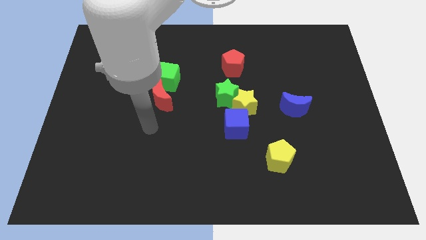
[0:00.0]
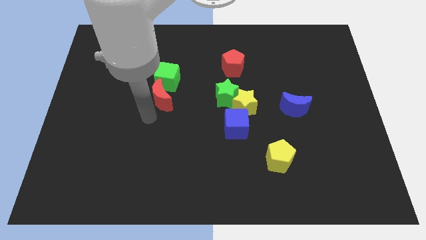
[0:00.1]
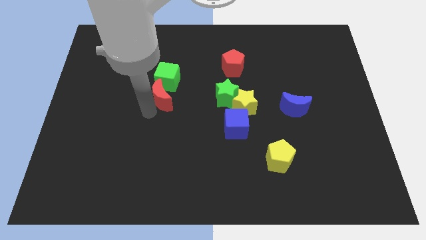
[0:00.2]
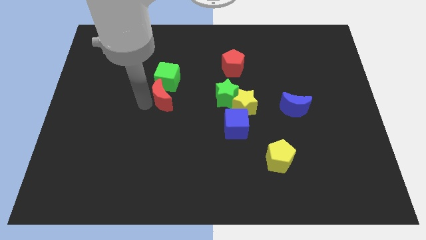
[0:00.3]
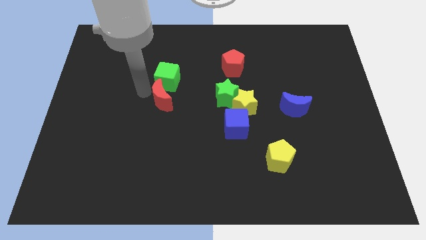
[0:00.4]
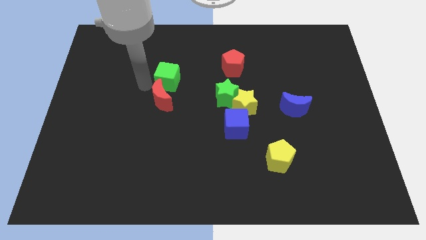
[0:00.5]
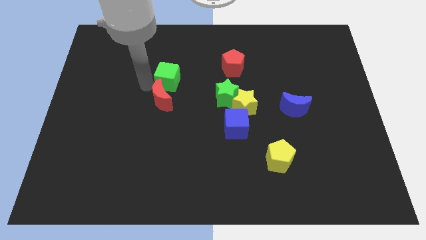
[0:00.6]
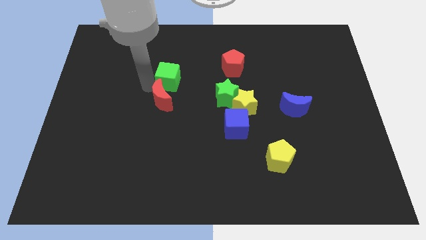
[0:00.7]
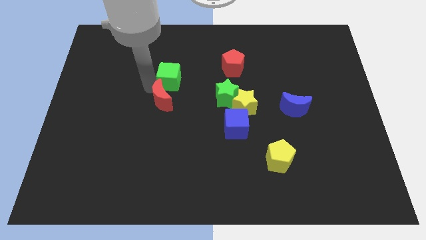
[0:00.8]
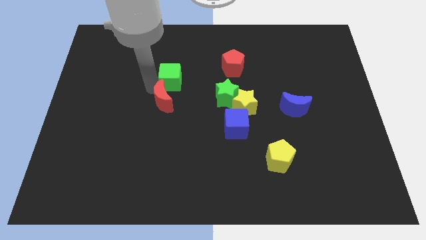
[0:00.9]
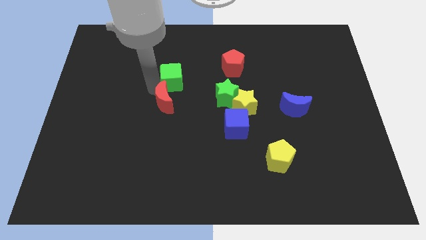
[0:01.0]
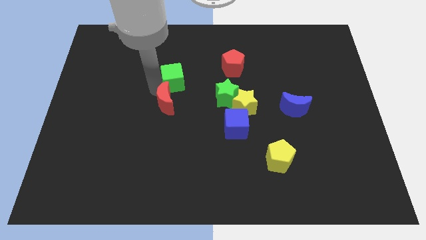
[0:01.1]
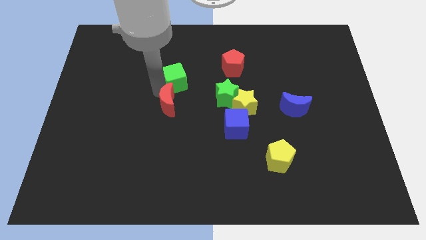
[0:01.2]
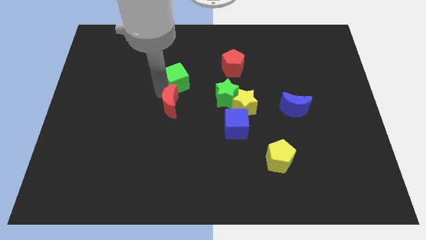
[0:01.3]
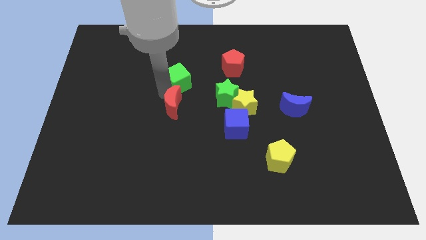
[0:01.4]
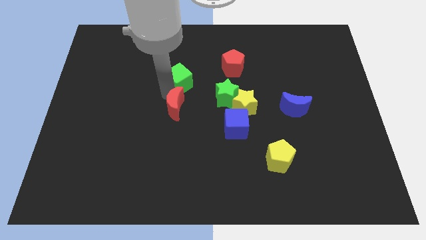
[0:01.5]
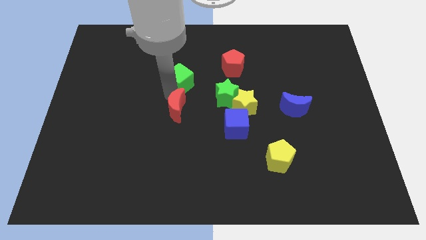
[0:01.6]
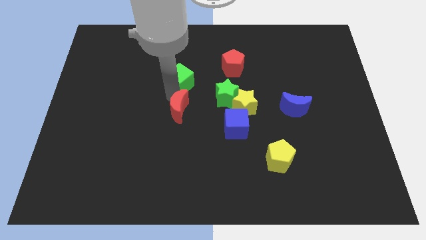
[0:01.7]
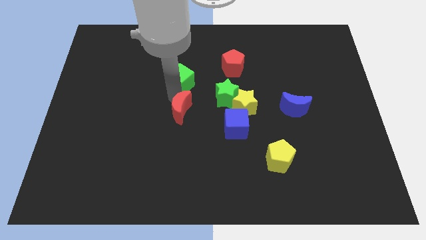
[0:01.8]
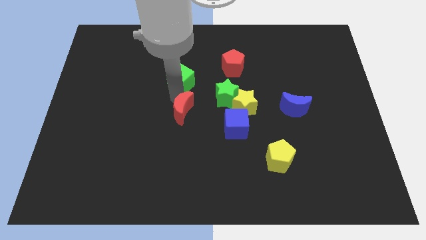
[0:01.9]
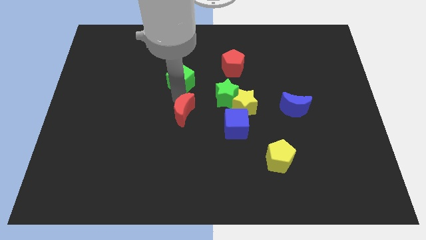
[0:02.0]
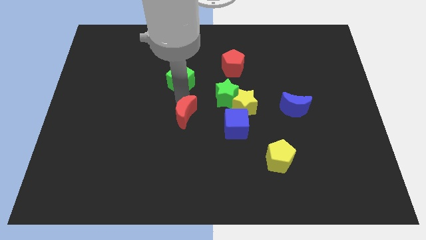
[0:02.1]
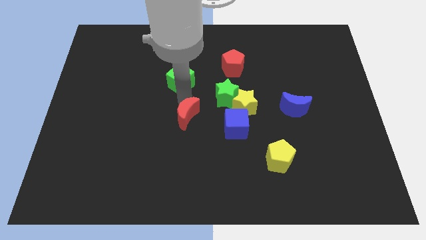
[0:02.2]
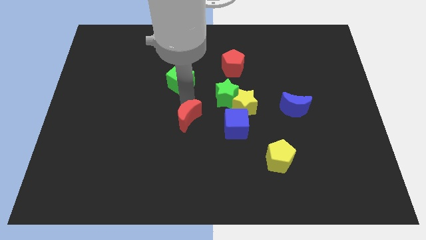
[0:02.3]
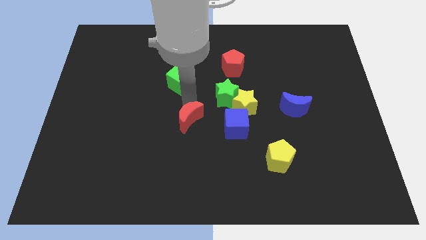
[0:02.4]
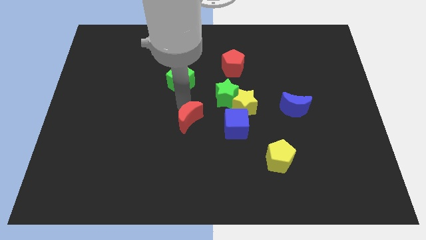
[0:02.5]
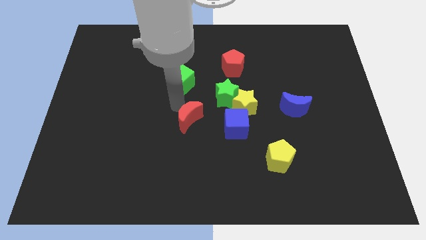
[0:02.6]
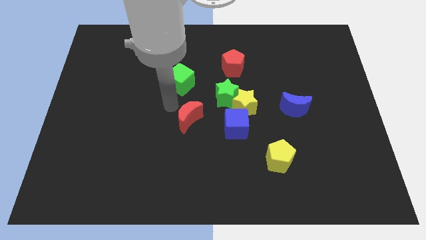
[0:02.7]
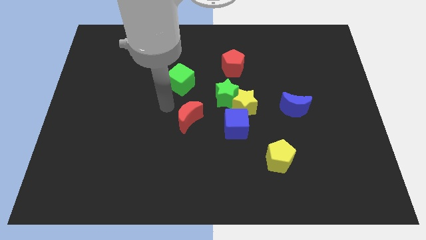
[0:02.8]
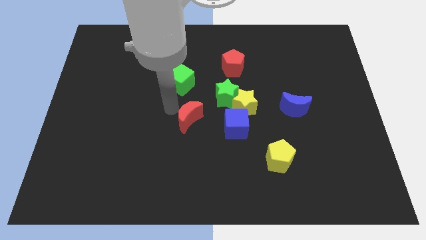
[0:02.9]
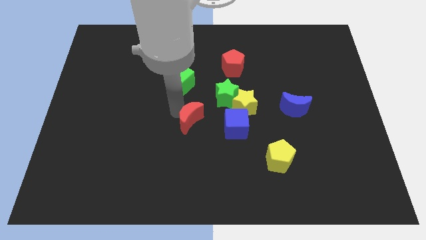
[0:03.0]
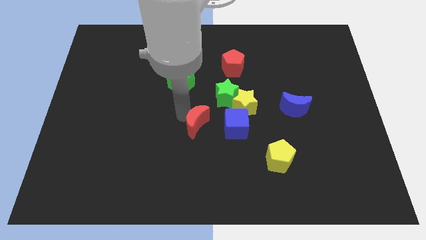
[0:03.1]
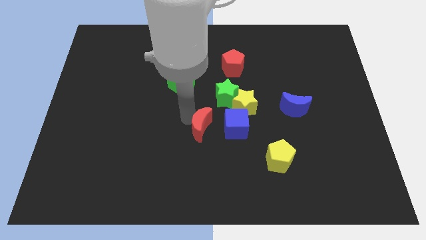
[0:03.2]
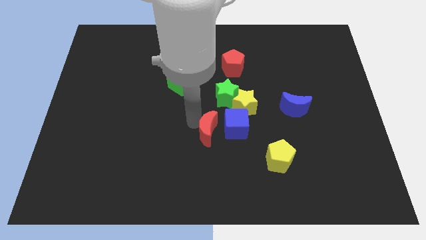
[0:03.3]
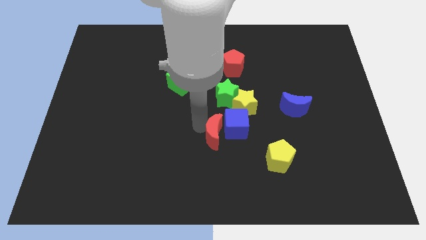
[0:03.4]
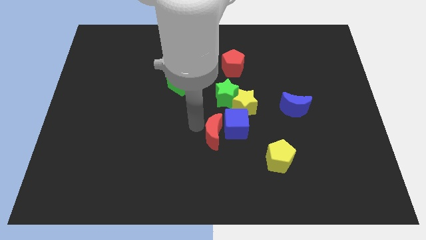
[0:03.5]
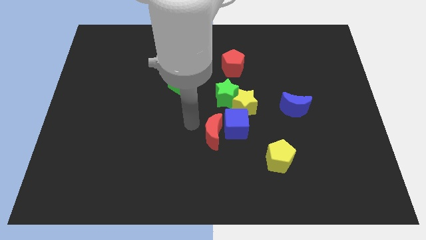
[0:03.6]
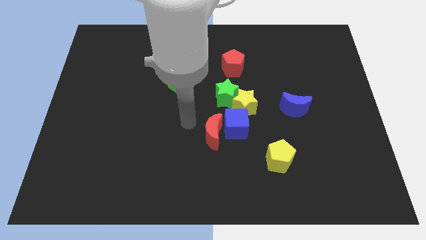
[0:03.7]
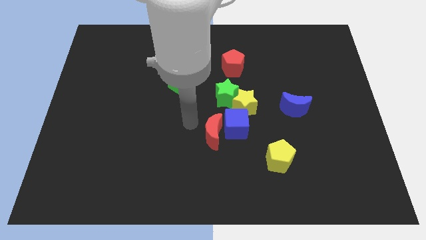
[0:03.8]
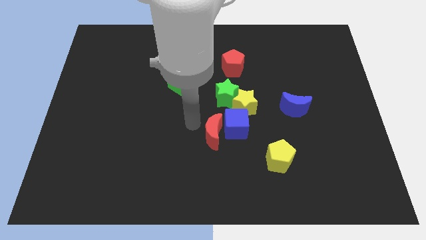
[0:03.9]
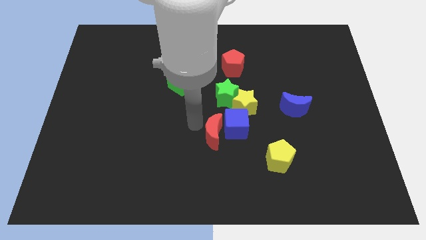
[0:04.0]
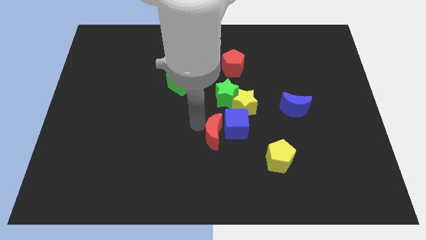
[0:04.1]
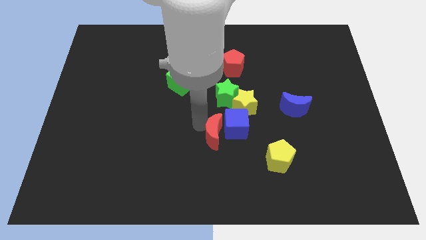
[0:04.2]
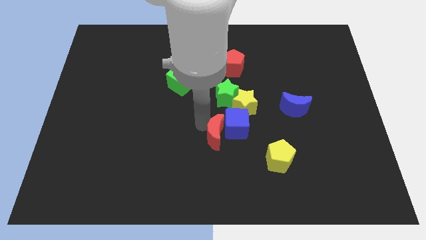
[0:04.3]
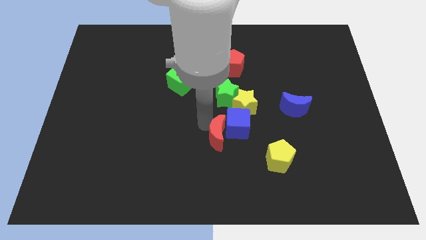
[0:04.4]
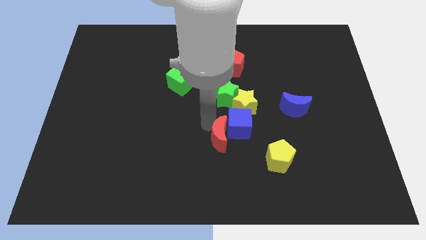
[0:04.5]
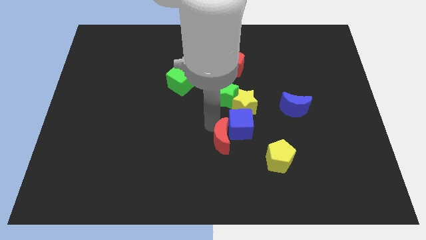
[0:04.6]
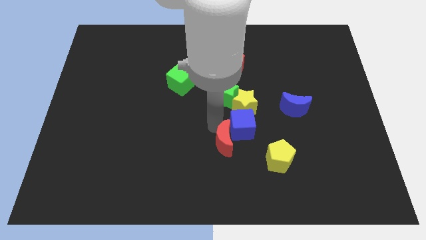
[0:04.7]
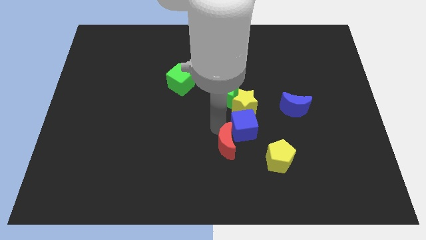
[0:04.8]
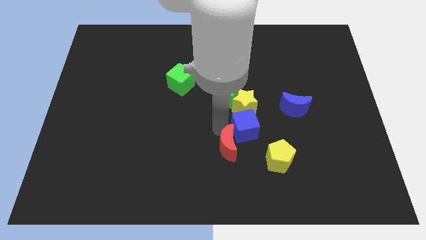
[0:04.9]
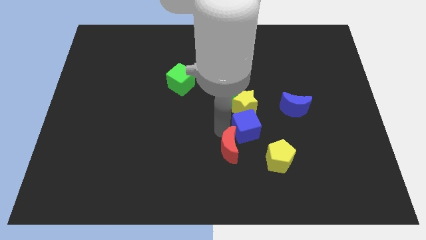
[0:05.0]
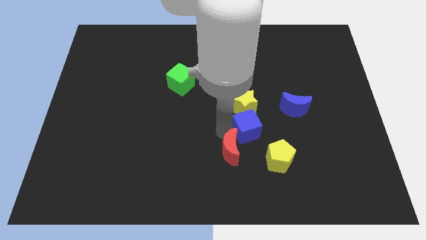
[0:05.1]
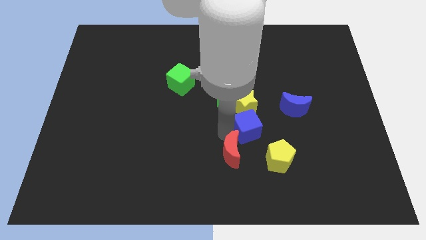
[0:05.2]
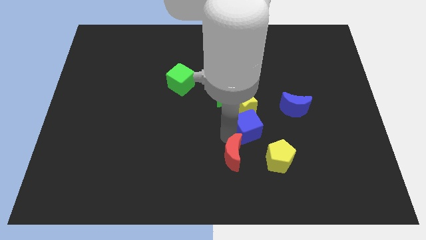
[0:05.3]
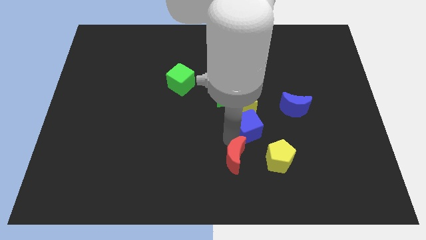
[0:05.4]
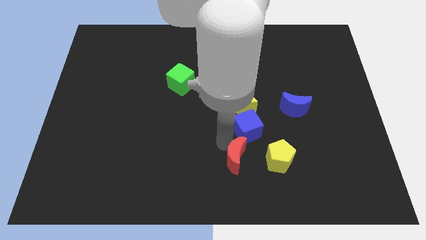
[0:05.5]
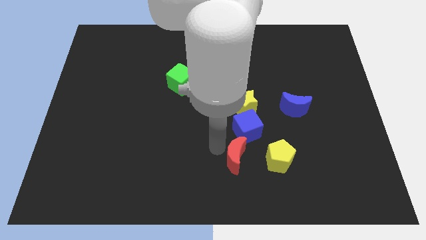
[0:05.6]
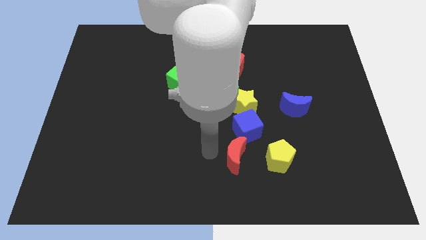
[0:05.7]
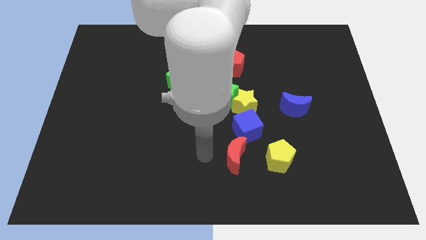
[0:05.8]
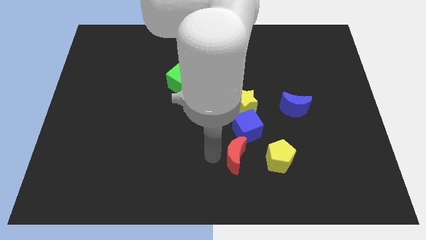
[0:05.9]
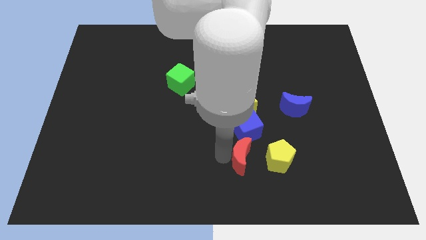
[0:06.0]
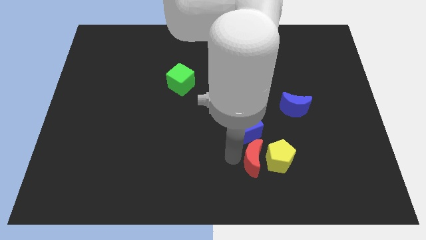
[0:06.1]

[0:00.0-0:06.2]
move the red moon towards the yellow pentagon

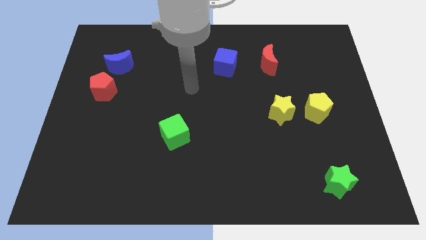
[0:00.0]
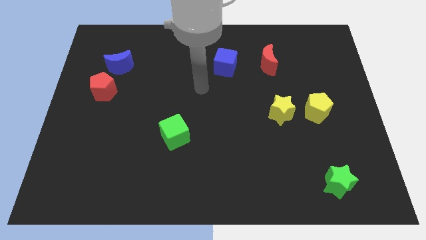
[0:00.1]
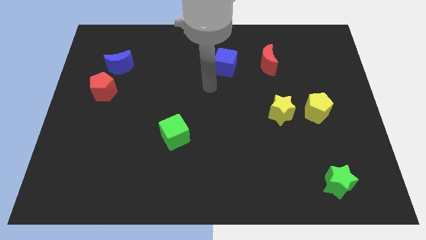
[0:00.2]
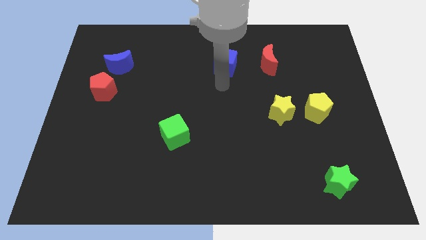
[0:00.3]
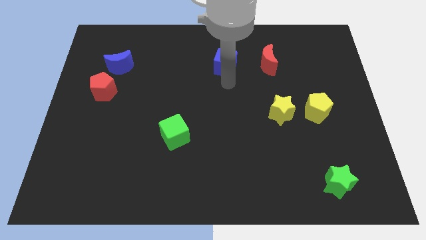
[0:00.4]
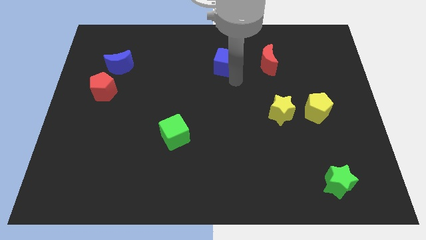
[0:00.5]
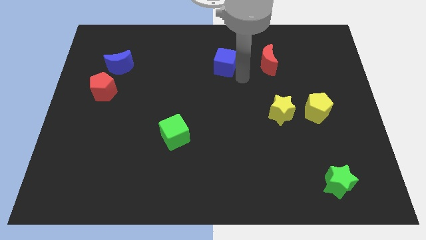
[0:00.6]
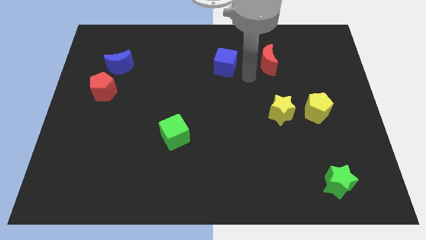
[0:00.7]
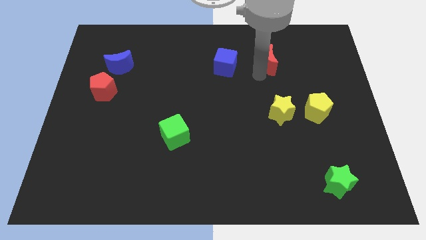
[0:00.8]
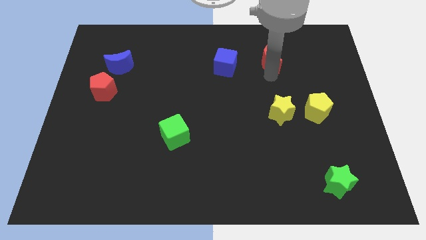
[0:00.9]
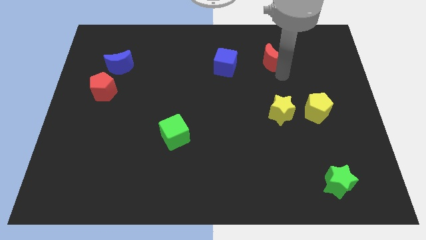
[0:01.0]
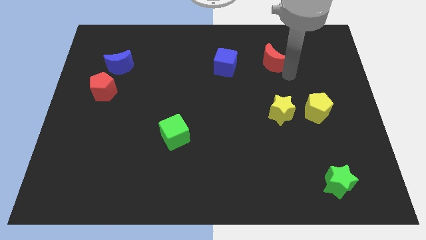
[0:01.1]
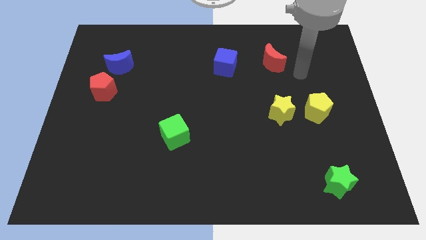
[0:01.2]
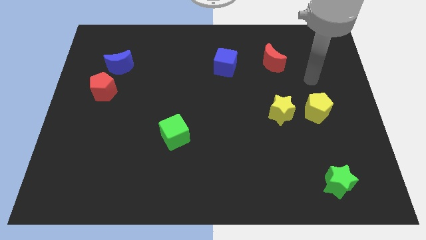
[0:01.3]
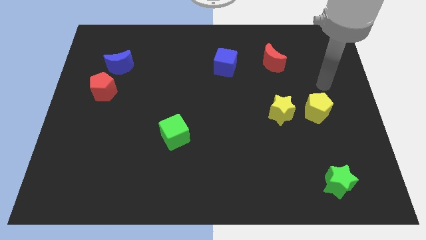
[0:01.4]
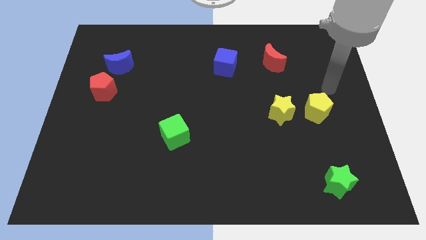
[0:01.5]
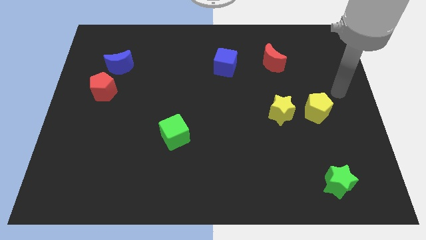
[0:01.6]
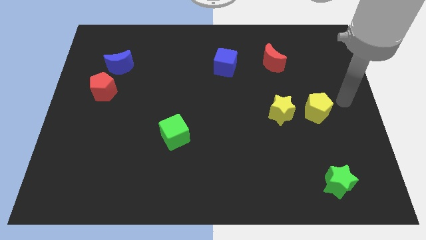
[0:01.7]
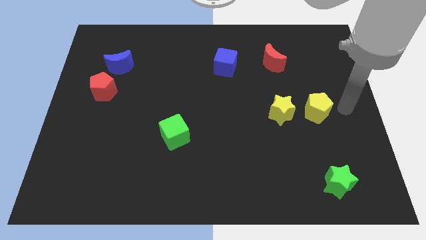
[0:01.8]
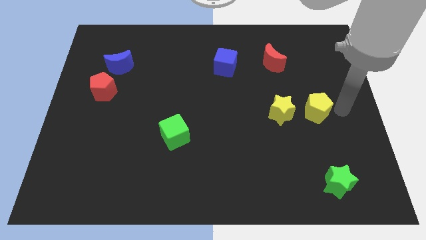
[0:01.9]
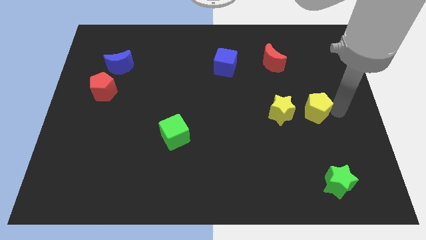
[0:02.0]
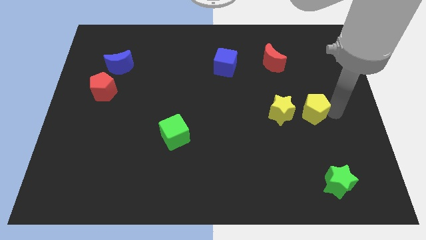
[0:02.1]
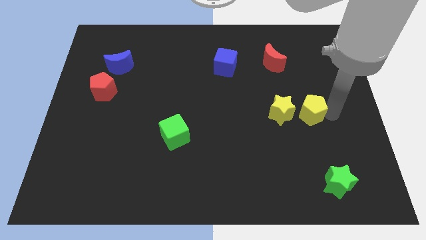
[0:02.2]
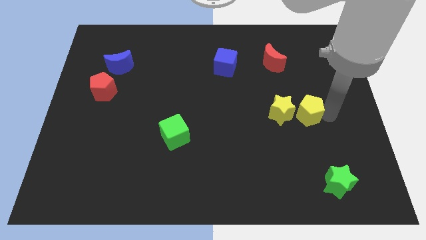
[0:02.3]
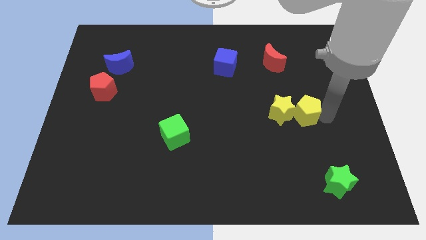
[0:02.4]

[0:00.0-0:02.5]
push the yellow pentagon close to the yellow star
